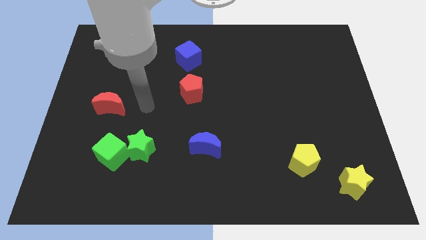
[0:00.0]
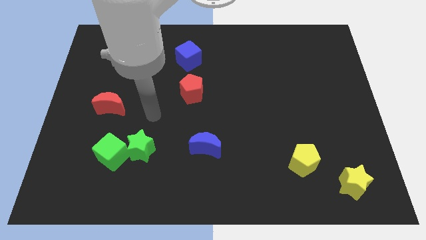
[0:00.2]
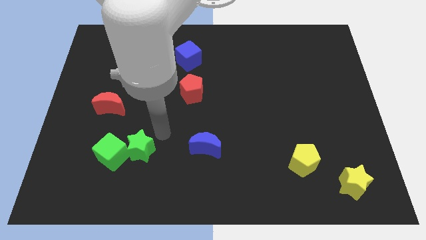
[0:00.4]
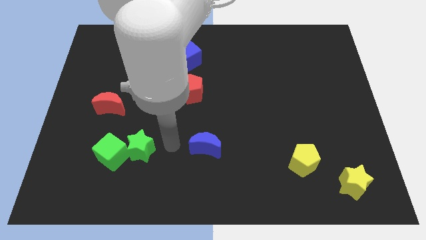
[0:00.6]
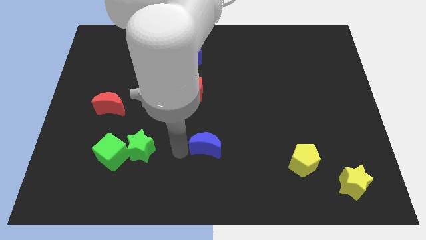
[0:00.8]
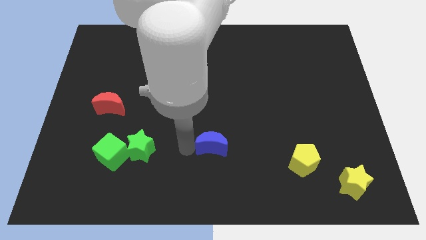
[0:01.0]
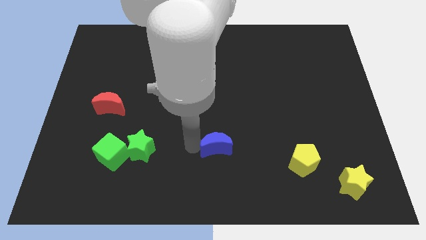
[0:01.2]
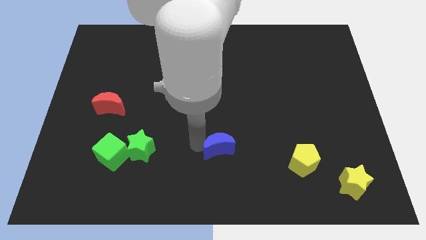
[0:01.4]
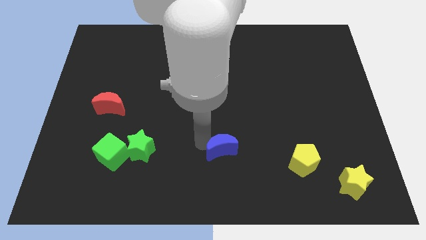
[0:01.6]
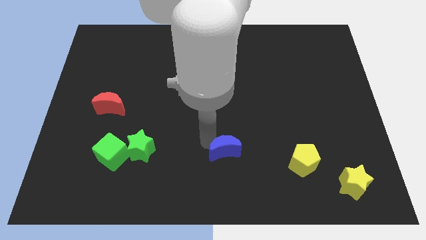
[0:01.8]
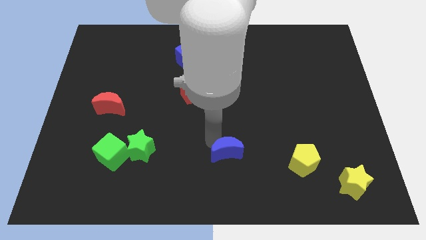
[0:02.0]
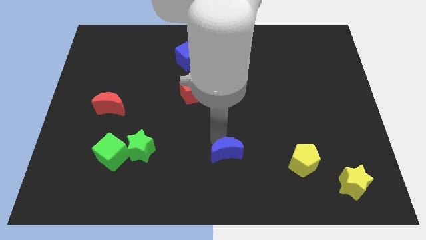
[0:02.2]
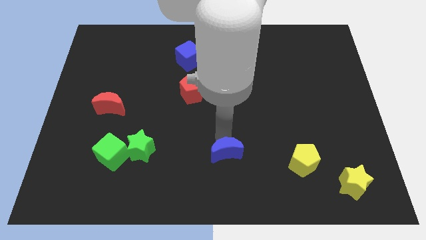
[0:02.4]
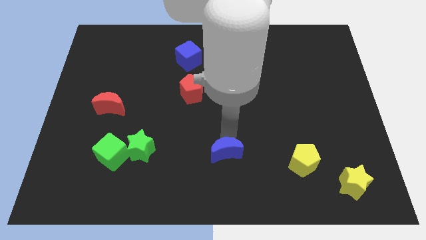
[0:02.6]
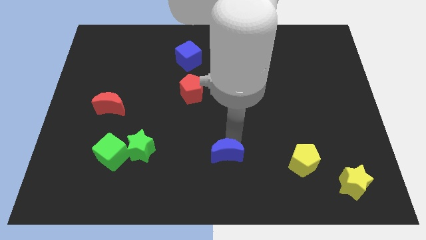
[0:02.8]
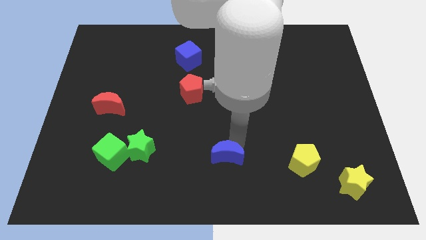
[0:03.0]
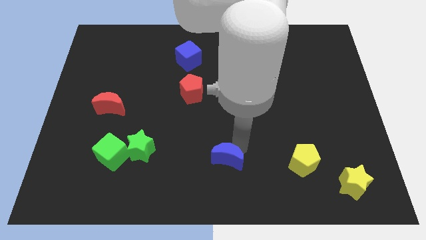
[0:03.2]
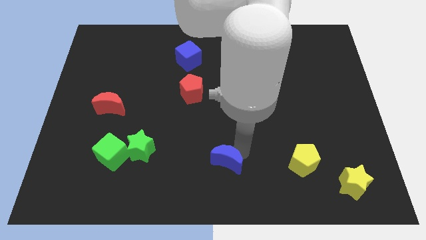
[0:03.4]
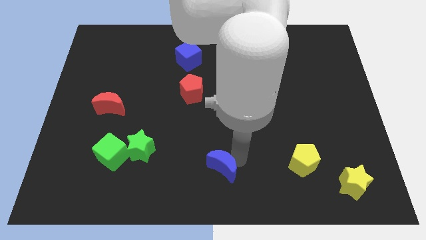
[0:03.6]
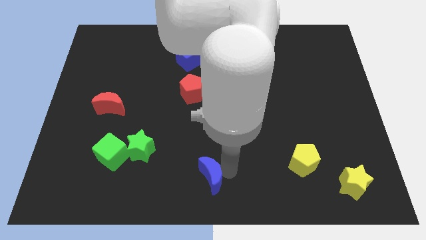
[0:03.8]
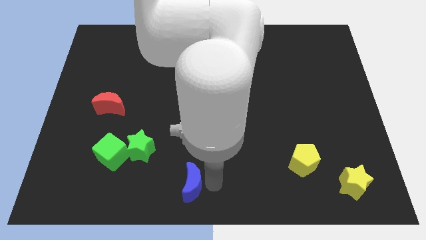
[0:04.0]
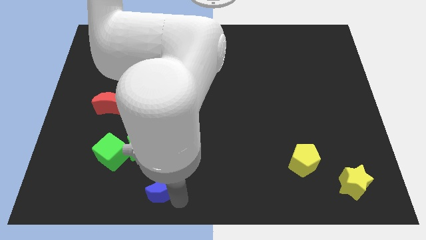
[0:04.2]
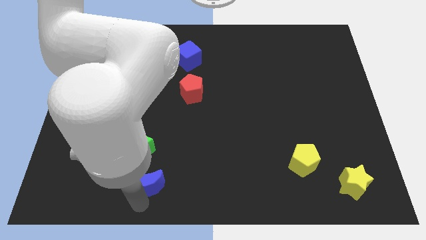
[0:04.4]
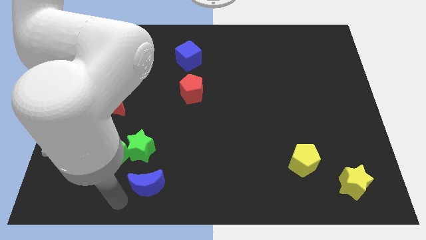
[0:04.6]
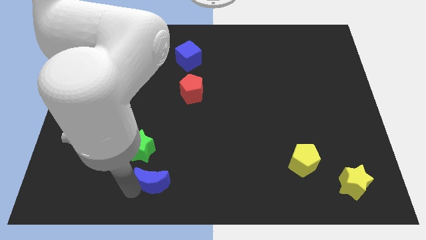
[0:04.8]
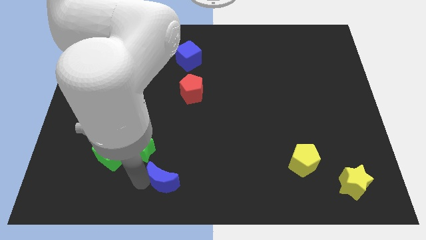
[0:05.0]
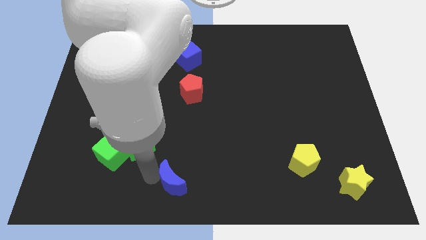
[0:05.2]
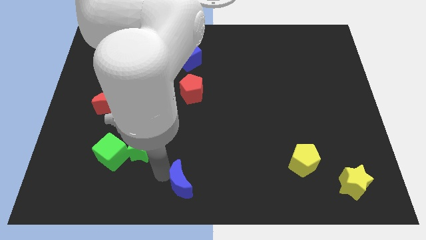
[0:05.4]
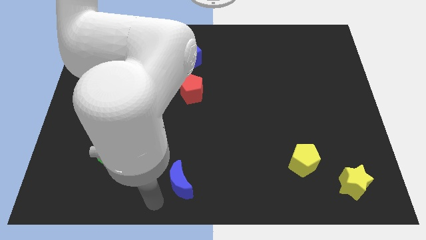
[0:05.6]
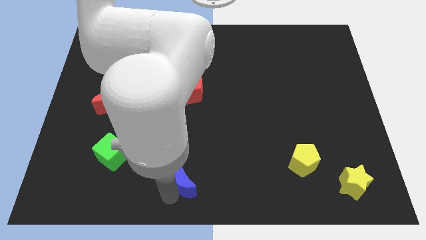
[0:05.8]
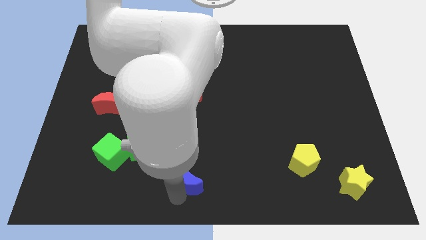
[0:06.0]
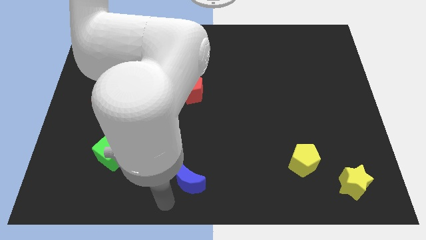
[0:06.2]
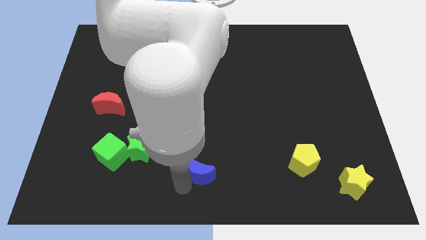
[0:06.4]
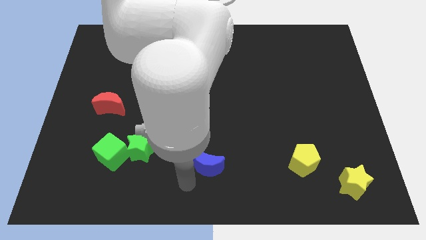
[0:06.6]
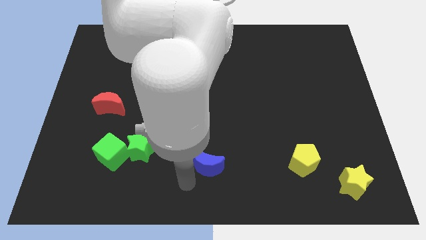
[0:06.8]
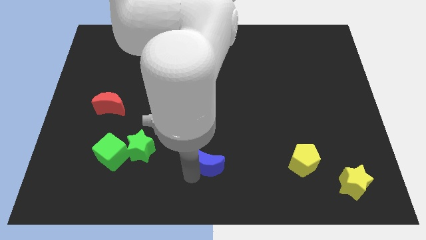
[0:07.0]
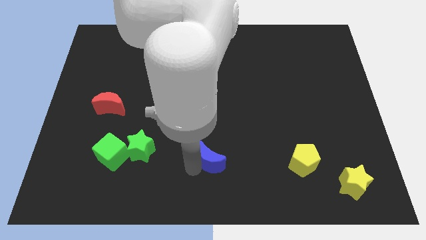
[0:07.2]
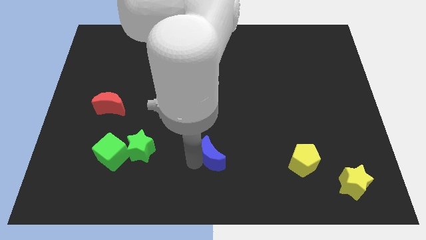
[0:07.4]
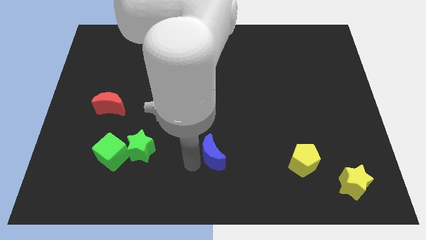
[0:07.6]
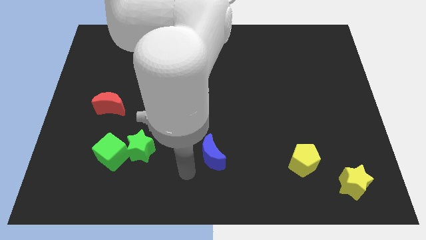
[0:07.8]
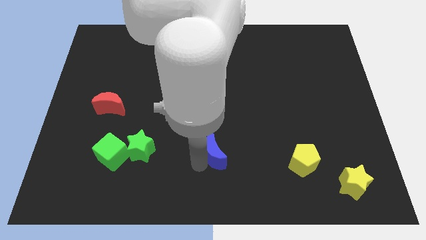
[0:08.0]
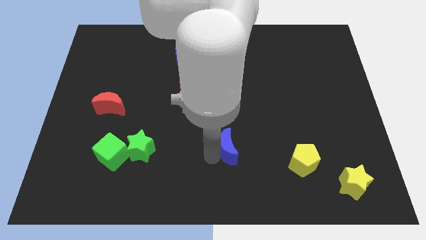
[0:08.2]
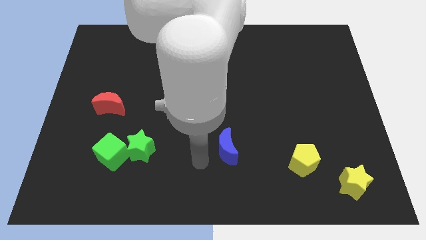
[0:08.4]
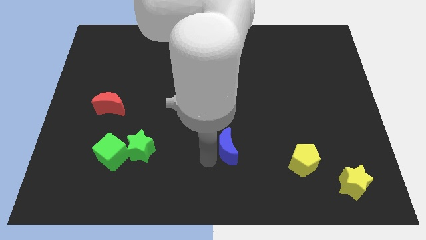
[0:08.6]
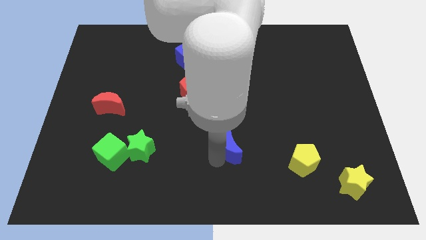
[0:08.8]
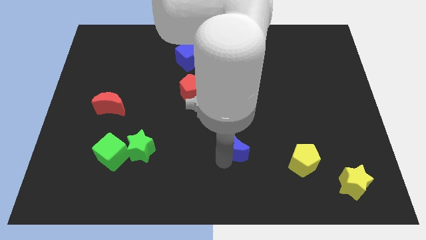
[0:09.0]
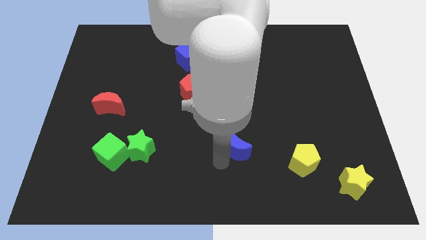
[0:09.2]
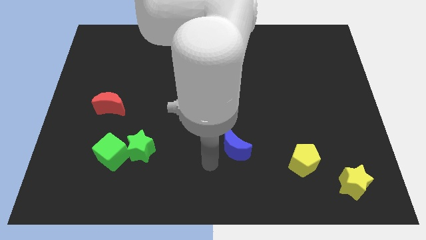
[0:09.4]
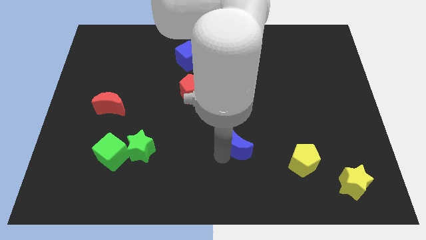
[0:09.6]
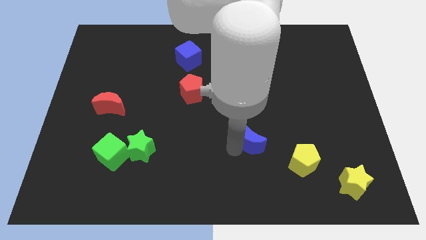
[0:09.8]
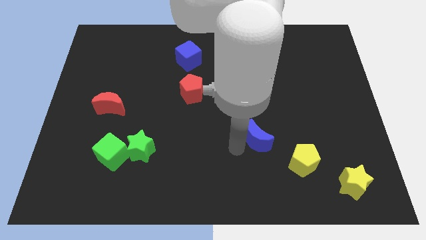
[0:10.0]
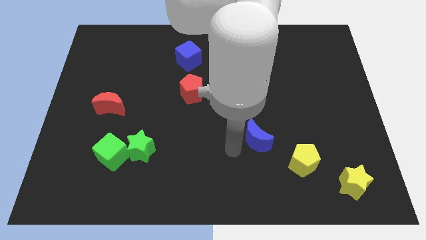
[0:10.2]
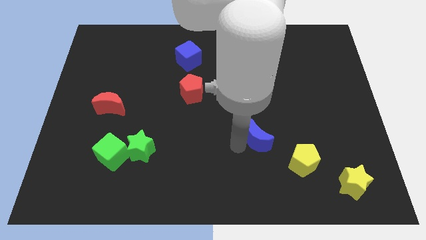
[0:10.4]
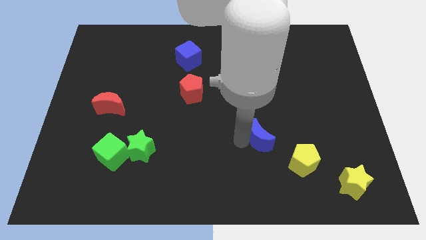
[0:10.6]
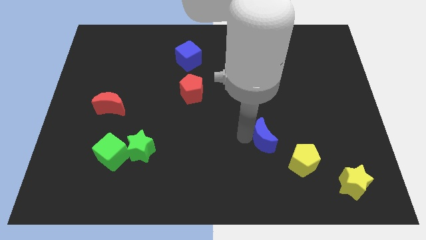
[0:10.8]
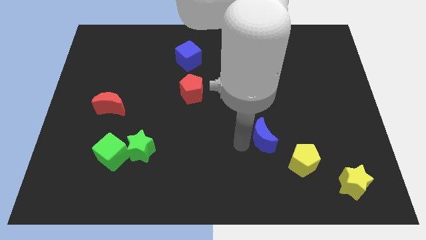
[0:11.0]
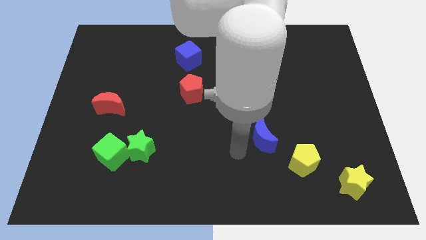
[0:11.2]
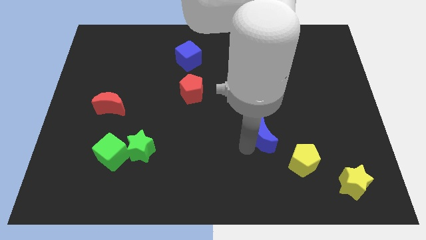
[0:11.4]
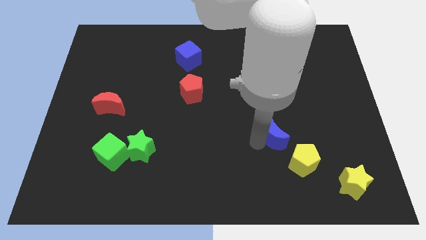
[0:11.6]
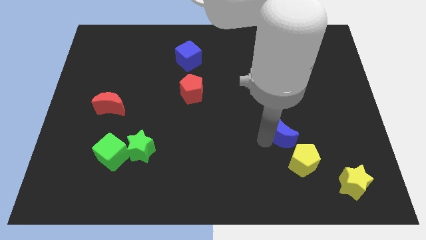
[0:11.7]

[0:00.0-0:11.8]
move the blue moon above the yellow pentagon

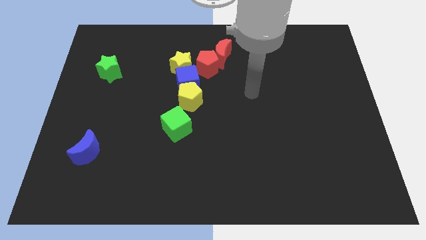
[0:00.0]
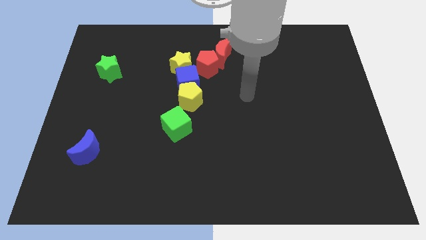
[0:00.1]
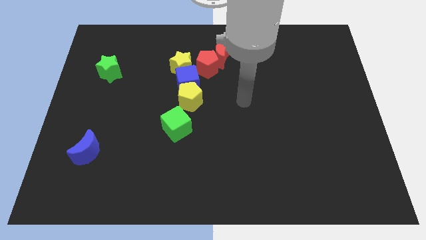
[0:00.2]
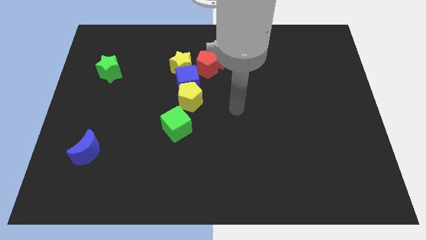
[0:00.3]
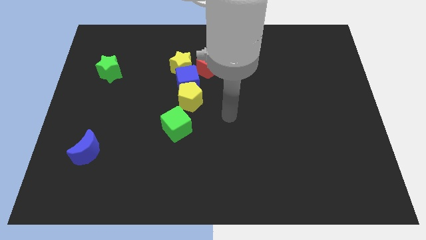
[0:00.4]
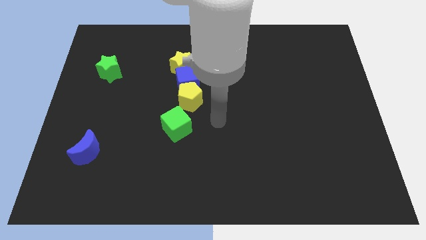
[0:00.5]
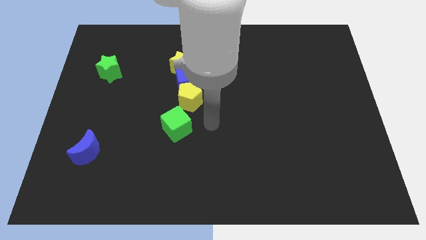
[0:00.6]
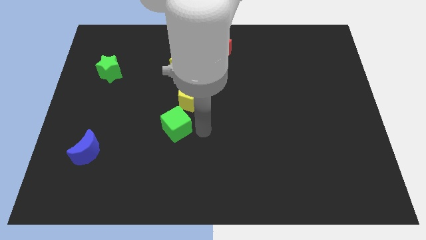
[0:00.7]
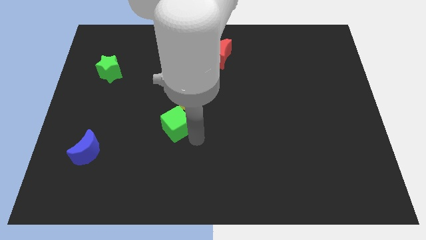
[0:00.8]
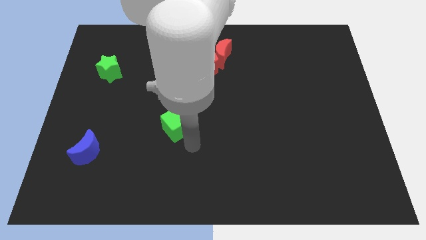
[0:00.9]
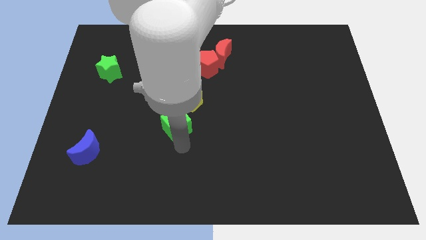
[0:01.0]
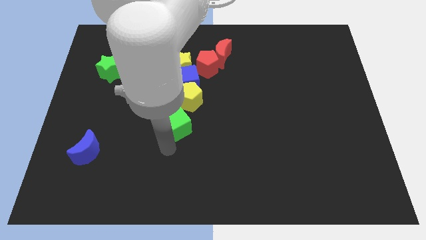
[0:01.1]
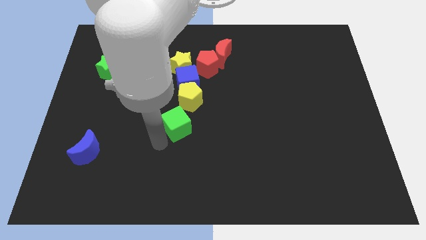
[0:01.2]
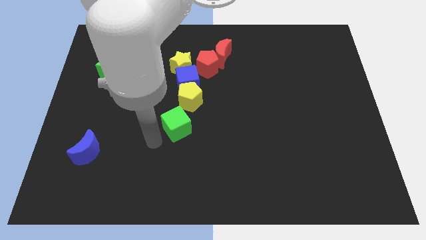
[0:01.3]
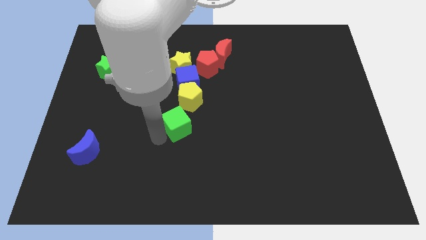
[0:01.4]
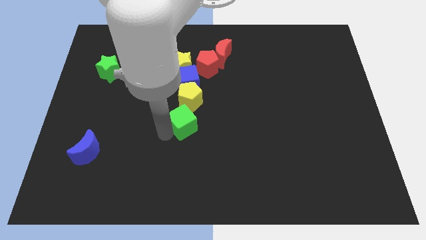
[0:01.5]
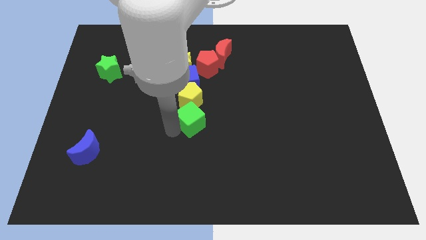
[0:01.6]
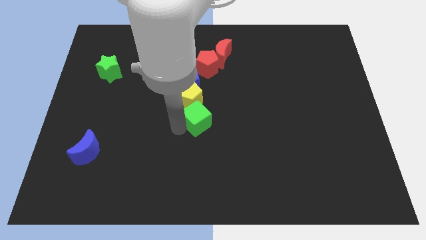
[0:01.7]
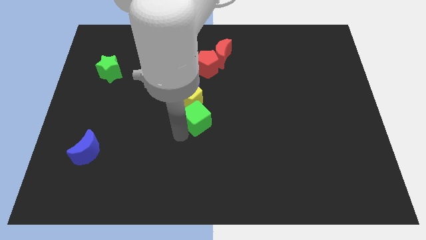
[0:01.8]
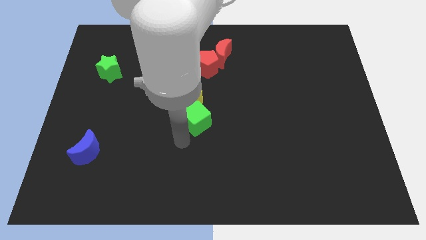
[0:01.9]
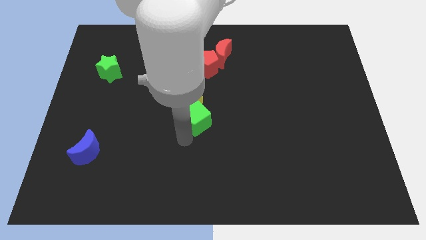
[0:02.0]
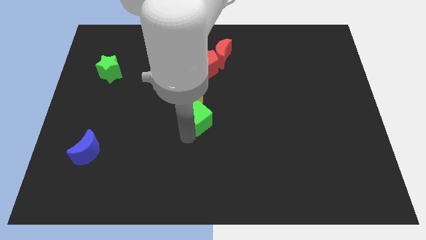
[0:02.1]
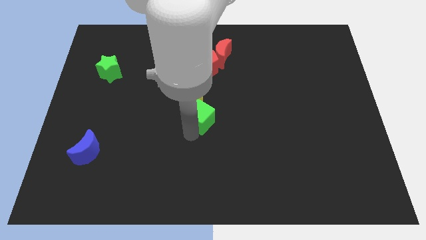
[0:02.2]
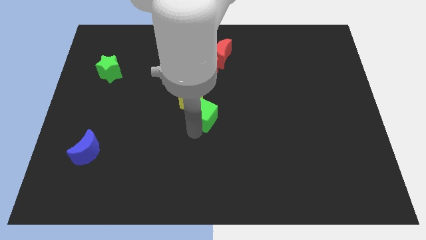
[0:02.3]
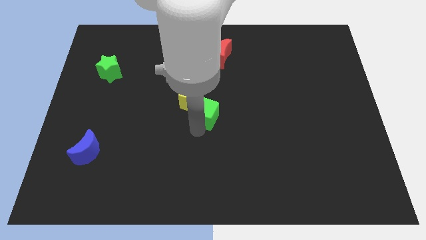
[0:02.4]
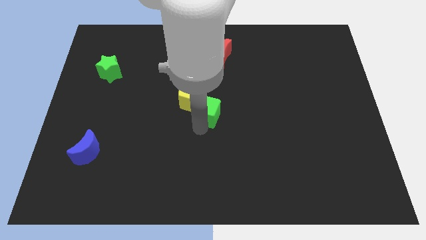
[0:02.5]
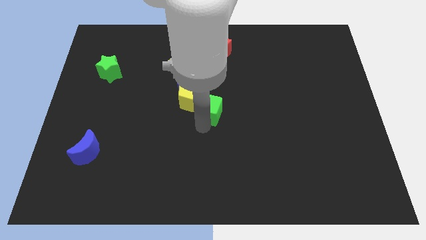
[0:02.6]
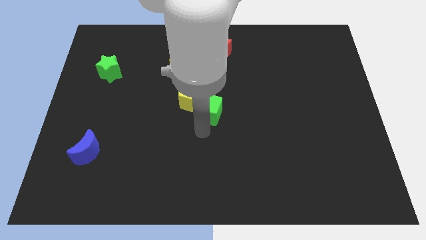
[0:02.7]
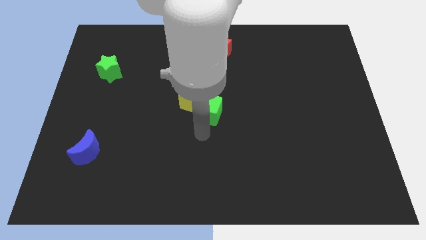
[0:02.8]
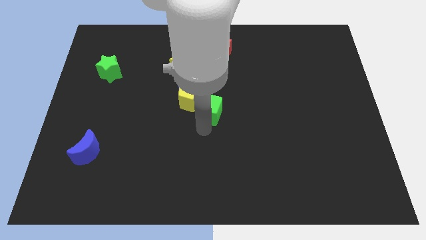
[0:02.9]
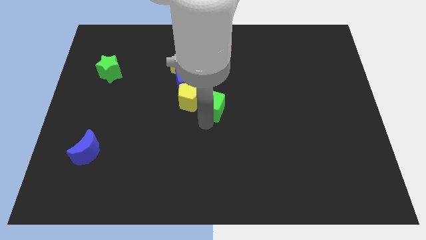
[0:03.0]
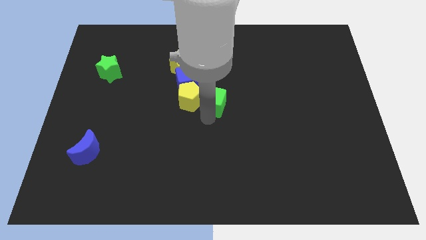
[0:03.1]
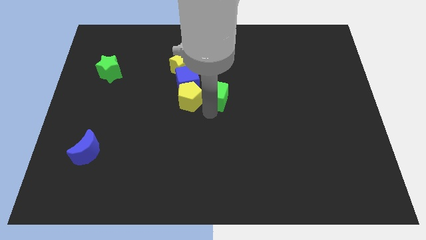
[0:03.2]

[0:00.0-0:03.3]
slide the green cube below the red moon
